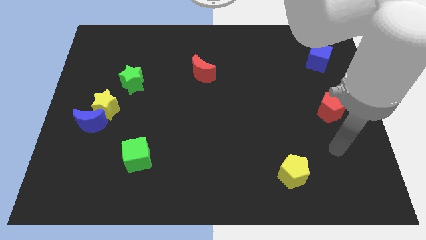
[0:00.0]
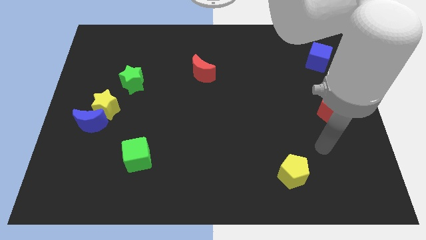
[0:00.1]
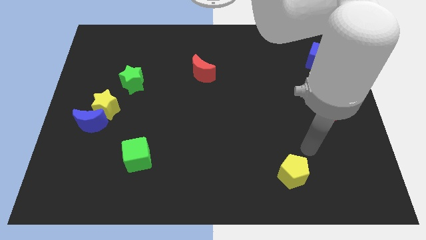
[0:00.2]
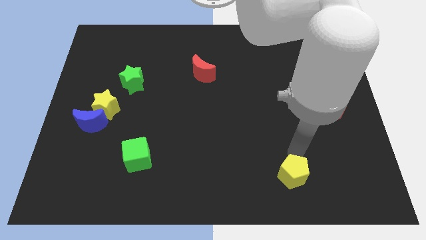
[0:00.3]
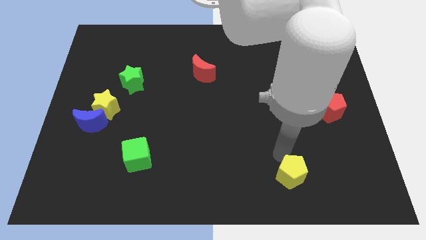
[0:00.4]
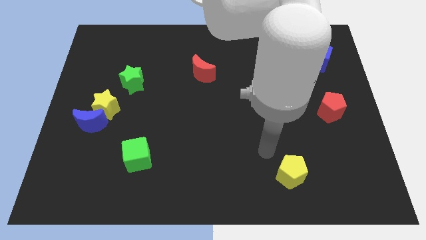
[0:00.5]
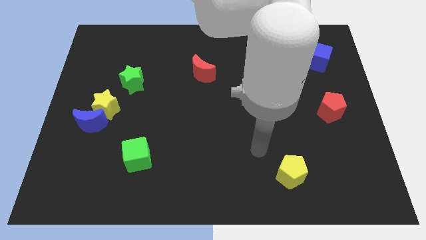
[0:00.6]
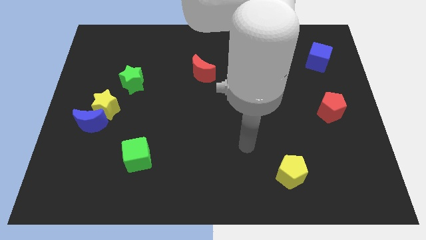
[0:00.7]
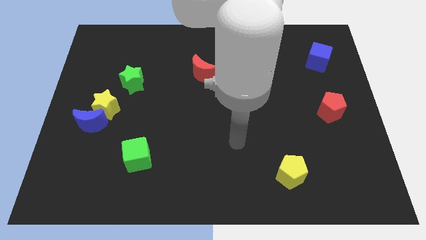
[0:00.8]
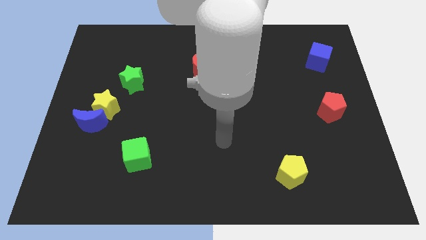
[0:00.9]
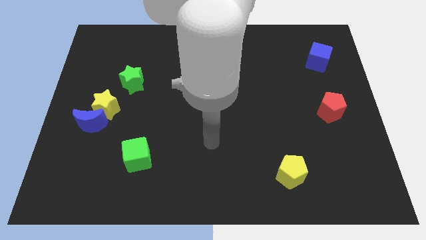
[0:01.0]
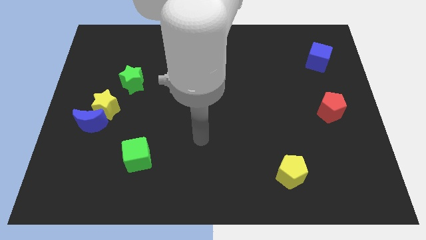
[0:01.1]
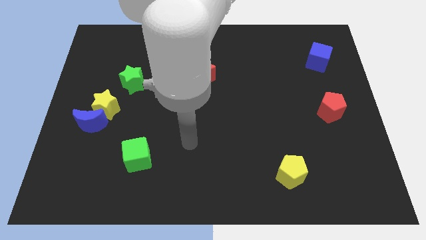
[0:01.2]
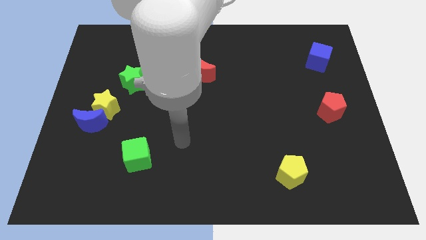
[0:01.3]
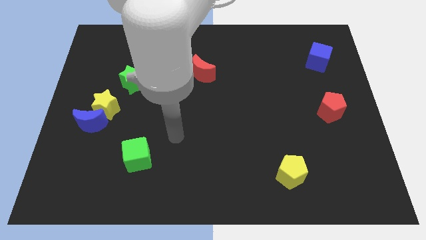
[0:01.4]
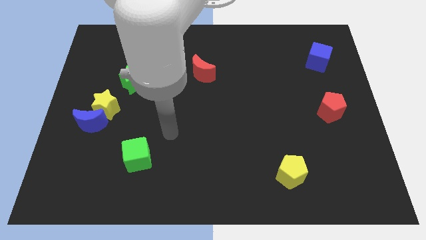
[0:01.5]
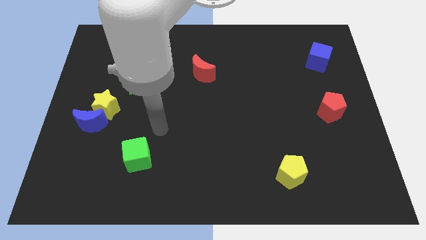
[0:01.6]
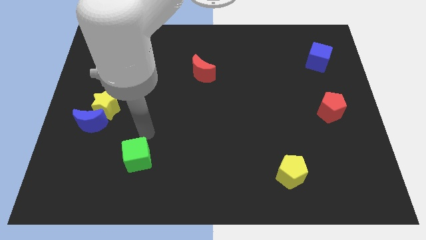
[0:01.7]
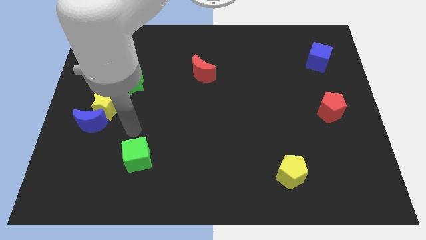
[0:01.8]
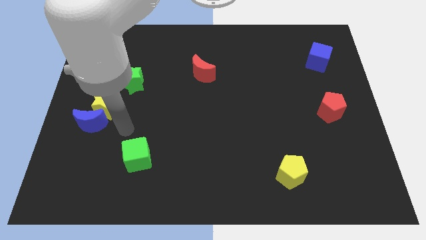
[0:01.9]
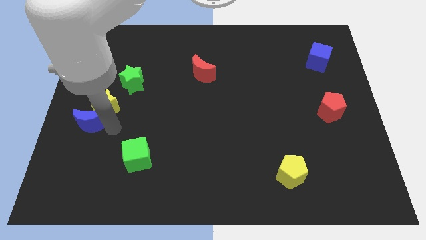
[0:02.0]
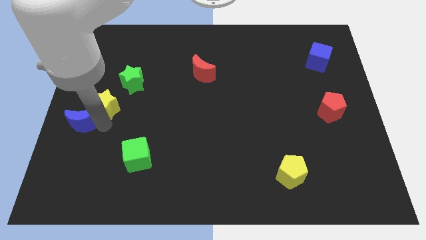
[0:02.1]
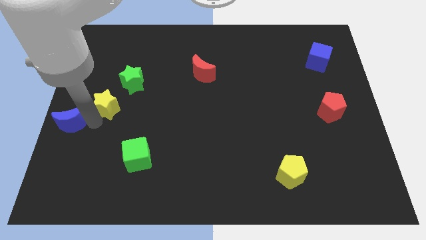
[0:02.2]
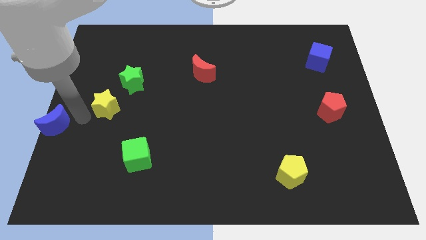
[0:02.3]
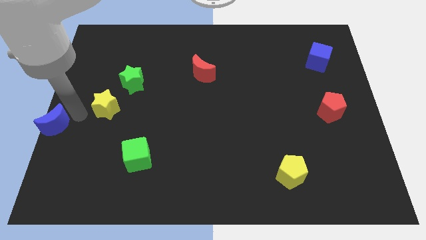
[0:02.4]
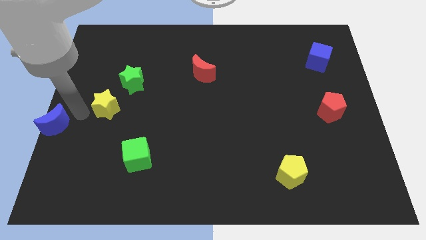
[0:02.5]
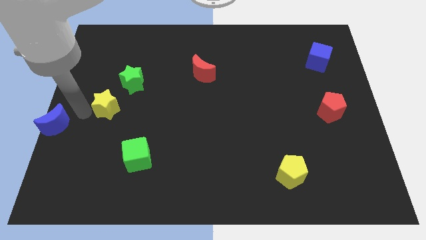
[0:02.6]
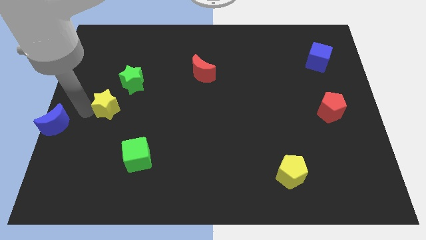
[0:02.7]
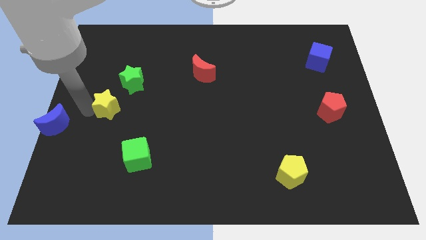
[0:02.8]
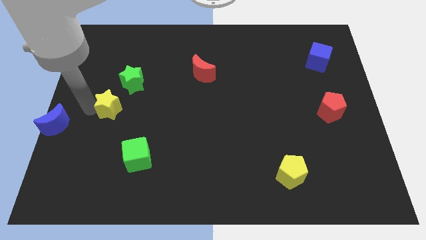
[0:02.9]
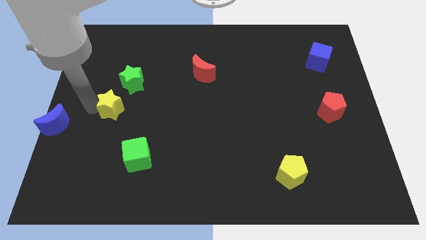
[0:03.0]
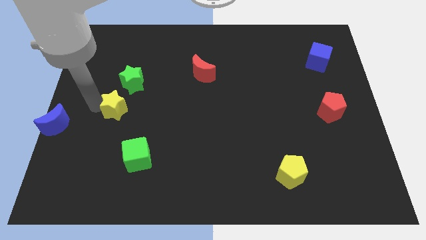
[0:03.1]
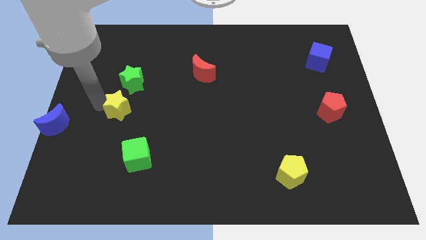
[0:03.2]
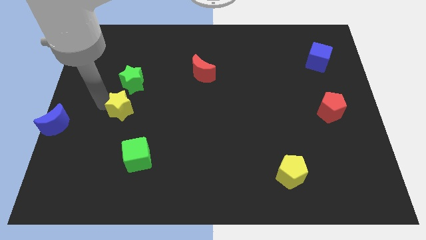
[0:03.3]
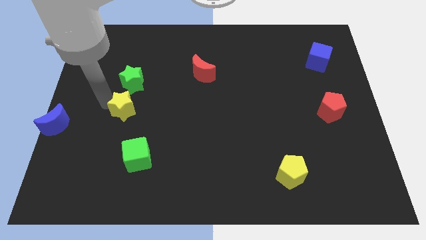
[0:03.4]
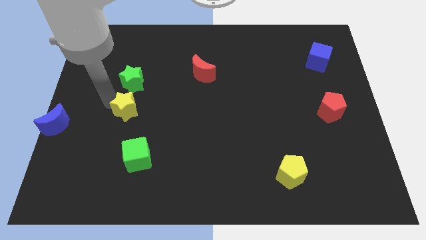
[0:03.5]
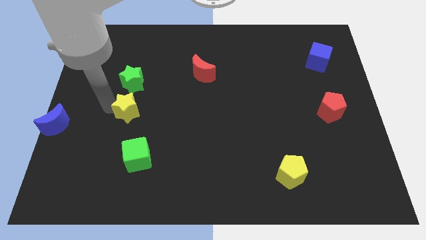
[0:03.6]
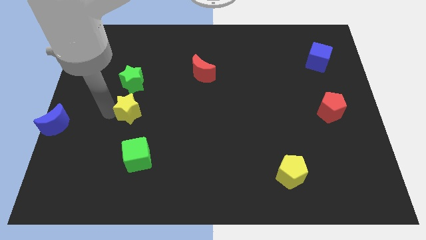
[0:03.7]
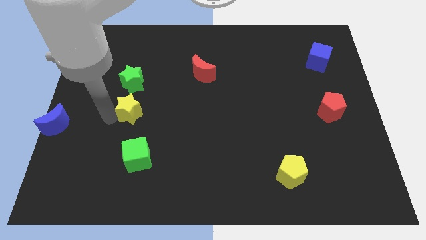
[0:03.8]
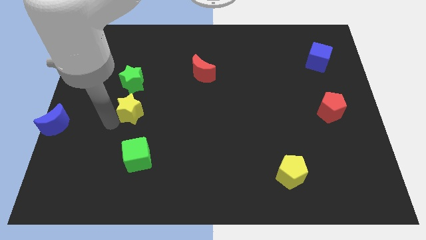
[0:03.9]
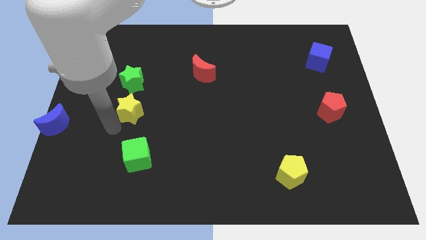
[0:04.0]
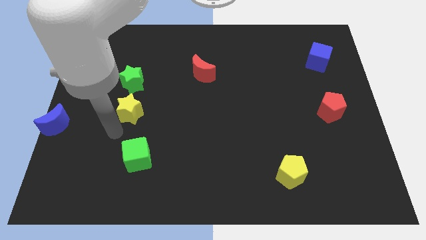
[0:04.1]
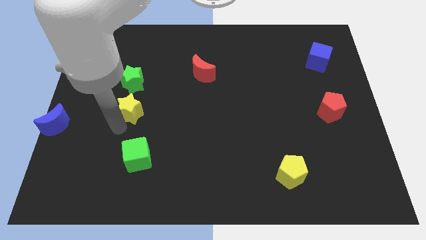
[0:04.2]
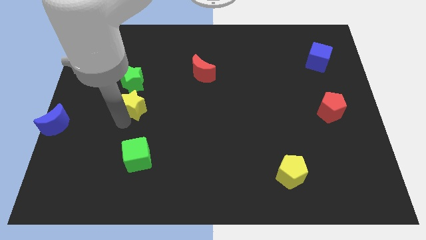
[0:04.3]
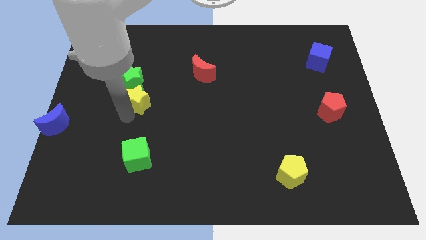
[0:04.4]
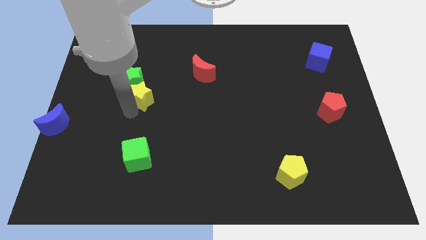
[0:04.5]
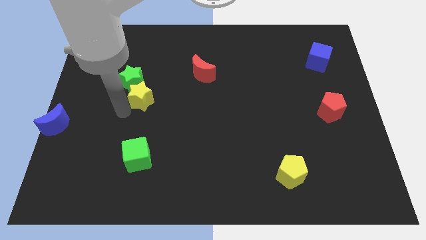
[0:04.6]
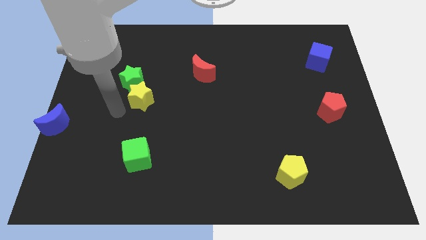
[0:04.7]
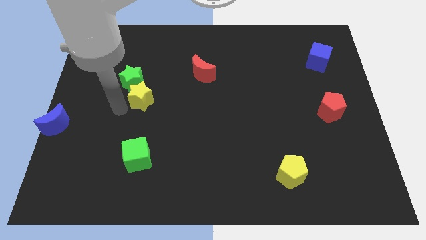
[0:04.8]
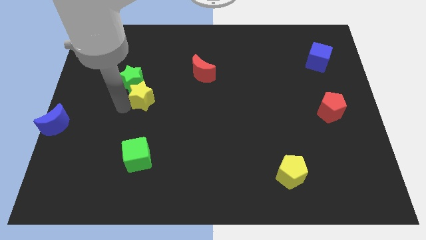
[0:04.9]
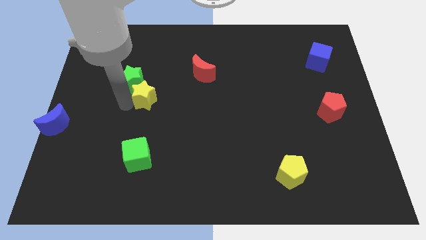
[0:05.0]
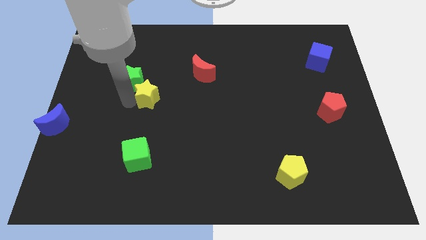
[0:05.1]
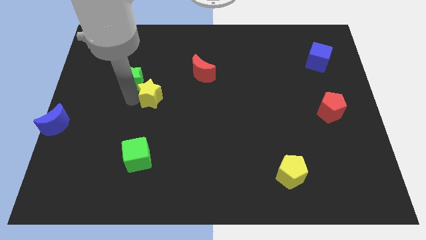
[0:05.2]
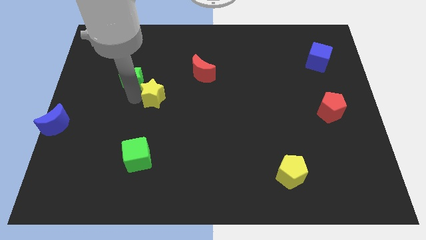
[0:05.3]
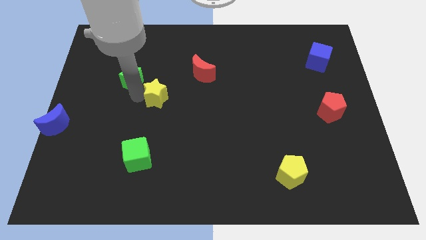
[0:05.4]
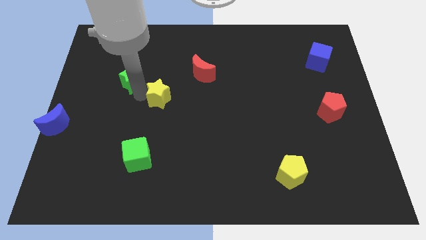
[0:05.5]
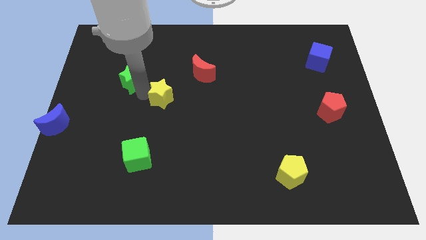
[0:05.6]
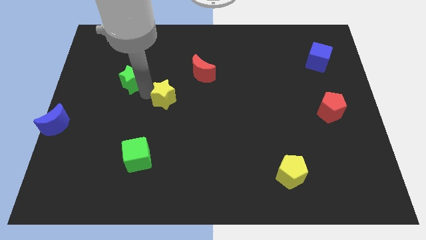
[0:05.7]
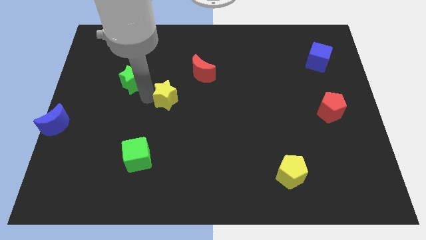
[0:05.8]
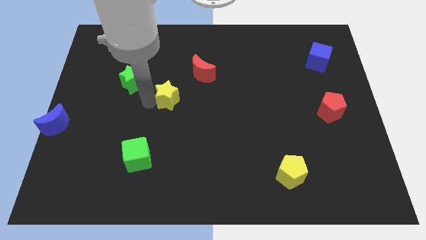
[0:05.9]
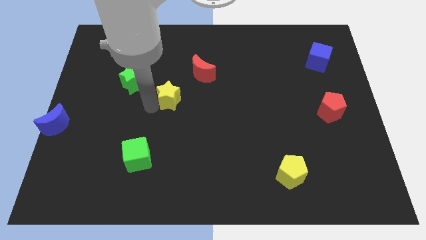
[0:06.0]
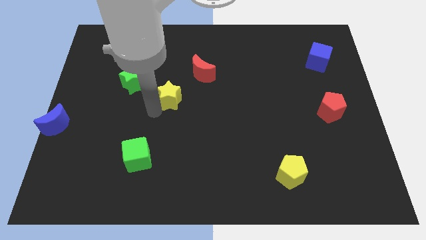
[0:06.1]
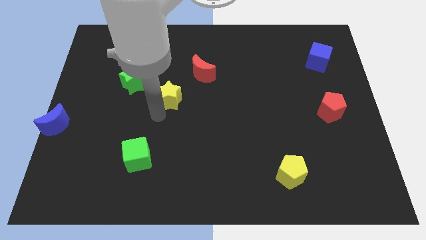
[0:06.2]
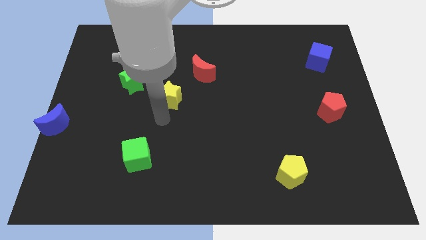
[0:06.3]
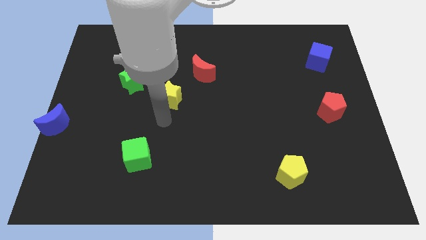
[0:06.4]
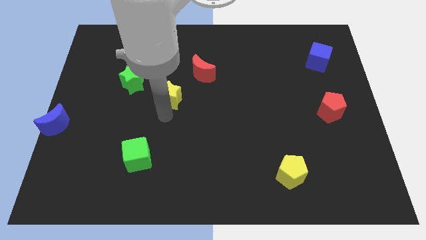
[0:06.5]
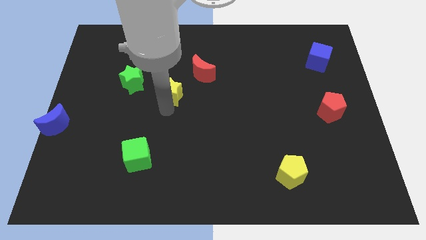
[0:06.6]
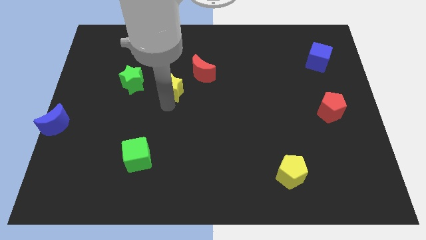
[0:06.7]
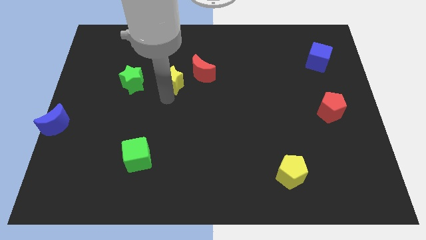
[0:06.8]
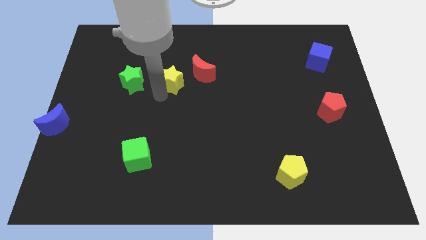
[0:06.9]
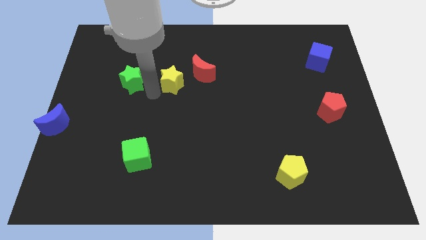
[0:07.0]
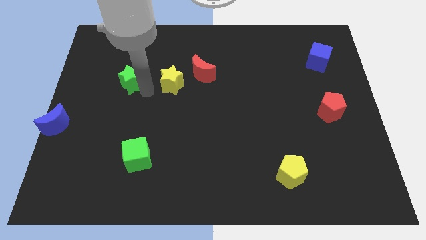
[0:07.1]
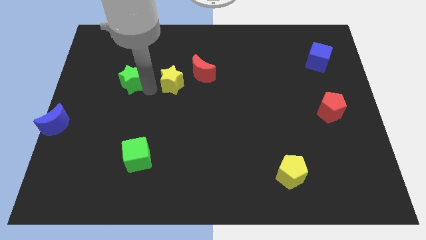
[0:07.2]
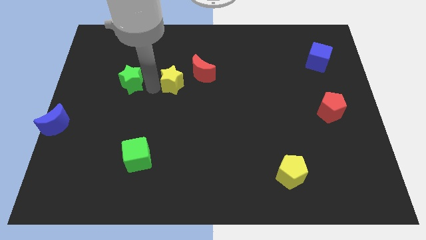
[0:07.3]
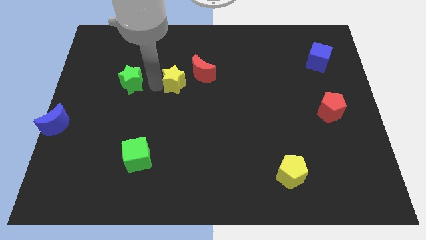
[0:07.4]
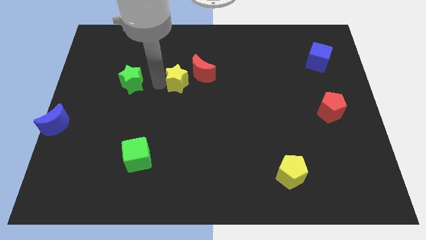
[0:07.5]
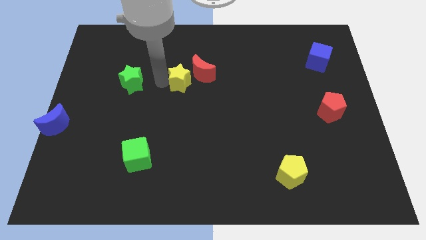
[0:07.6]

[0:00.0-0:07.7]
push the yellow star next to the red moon
